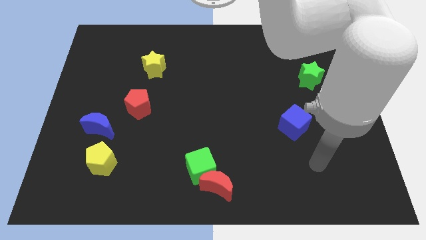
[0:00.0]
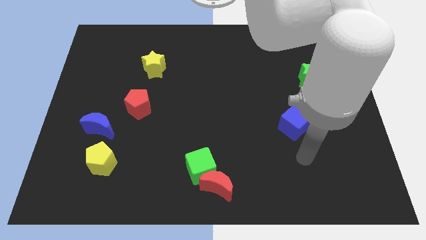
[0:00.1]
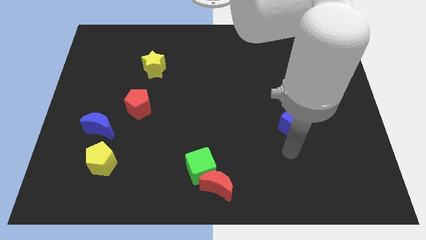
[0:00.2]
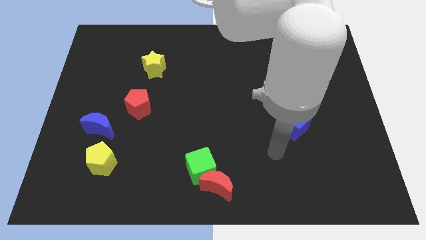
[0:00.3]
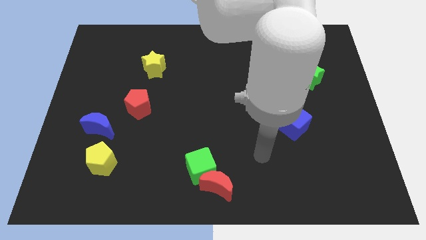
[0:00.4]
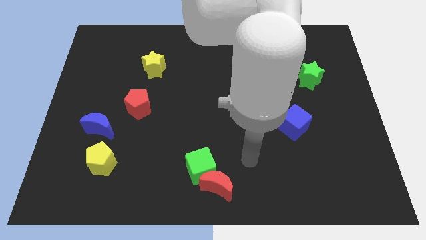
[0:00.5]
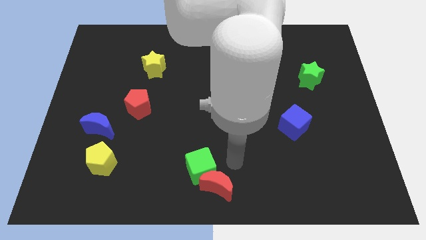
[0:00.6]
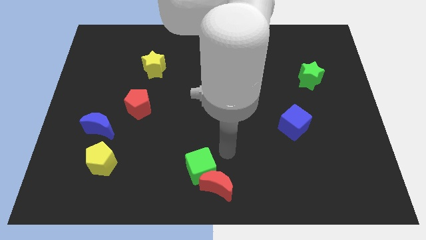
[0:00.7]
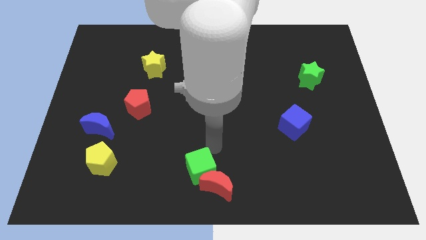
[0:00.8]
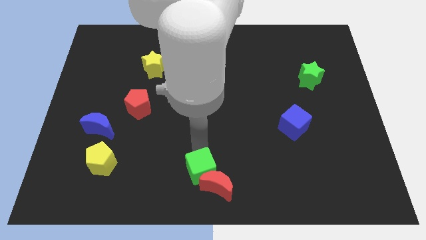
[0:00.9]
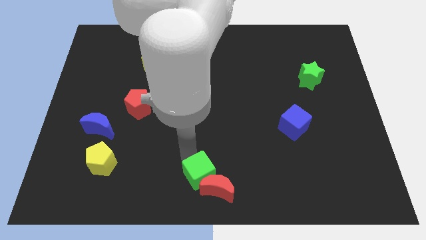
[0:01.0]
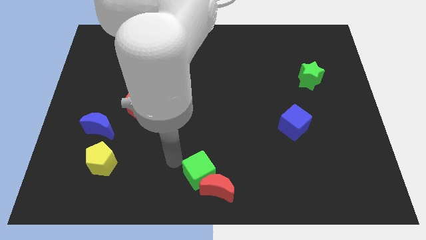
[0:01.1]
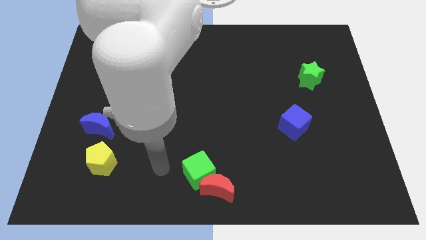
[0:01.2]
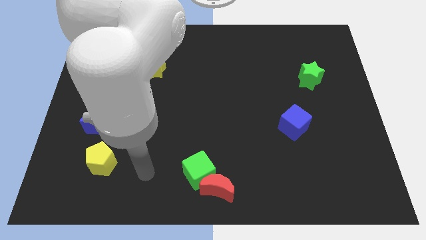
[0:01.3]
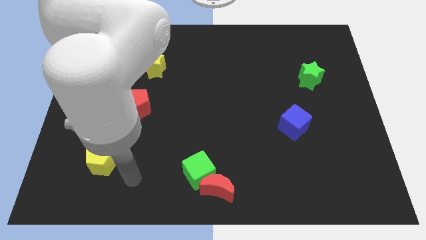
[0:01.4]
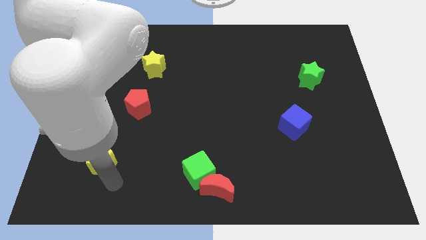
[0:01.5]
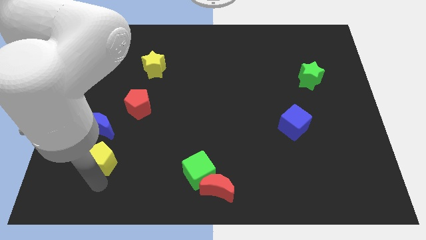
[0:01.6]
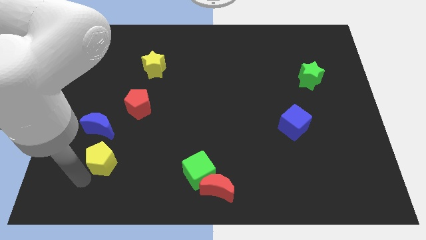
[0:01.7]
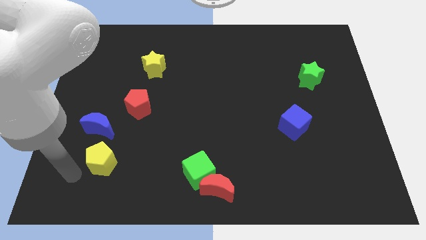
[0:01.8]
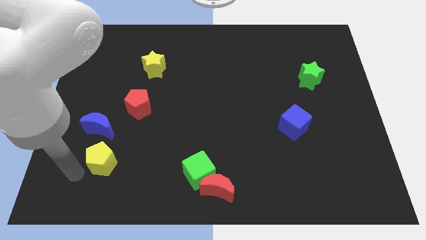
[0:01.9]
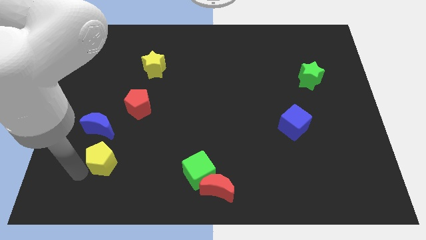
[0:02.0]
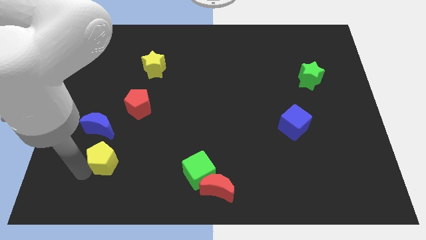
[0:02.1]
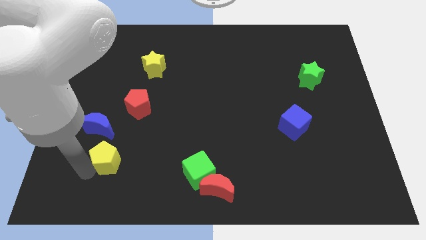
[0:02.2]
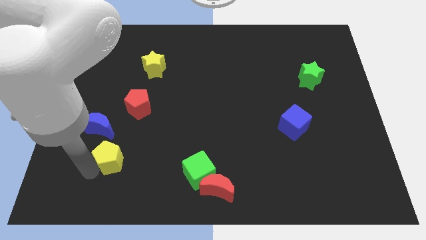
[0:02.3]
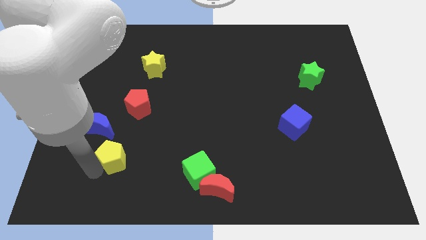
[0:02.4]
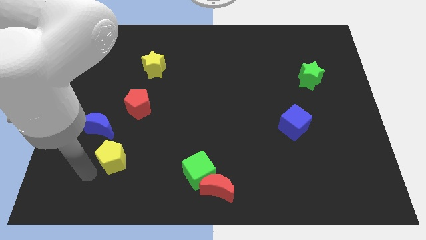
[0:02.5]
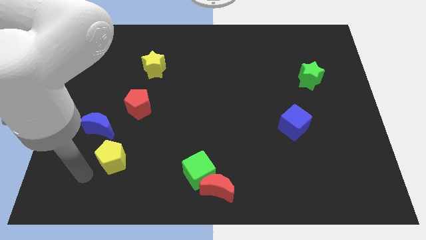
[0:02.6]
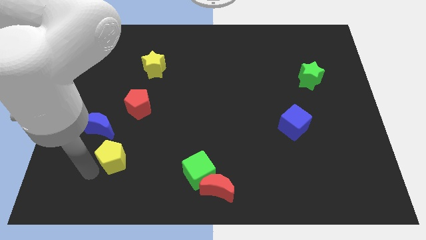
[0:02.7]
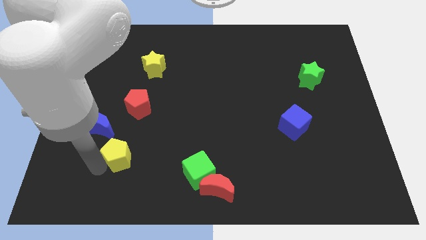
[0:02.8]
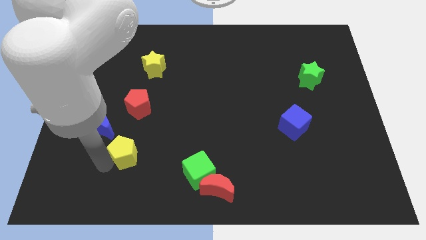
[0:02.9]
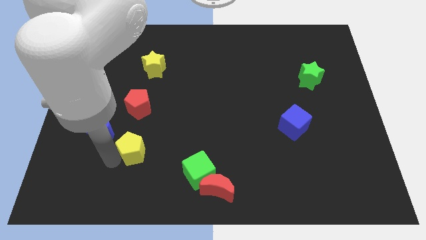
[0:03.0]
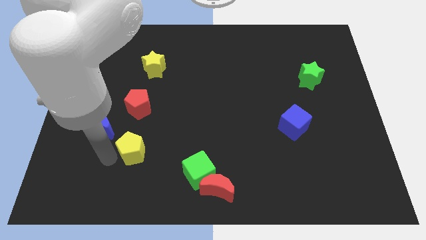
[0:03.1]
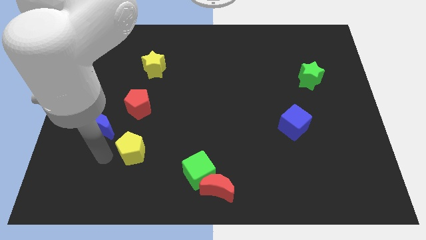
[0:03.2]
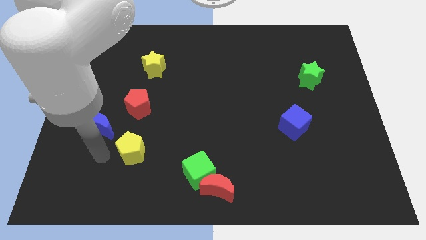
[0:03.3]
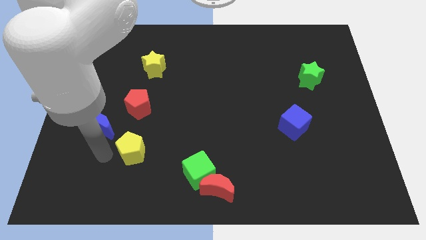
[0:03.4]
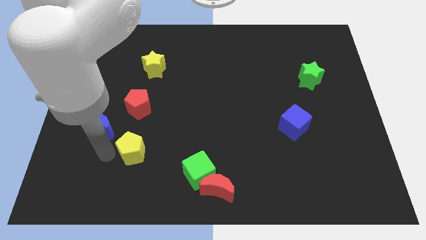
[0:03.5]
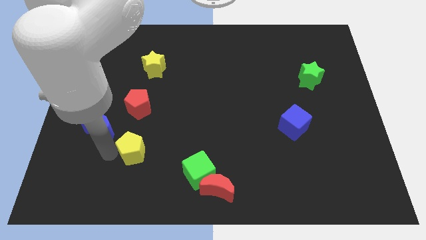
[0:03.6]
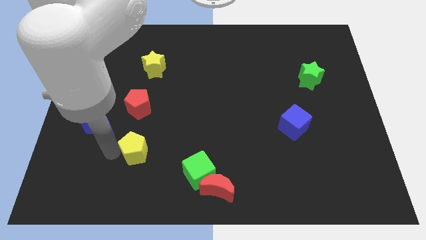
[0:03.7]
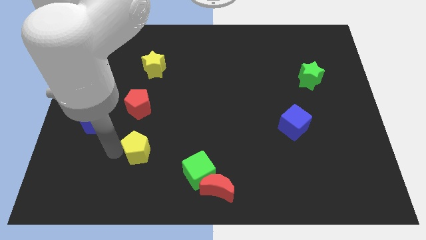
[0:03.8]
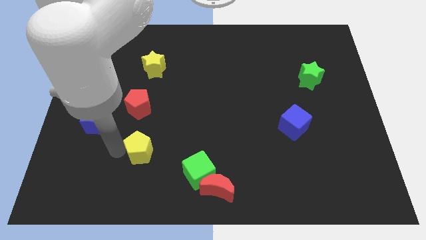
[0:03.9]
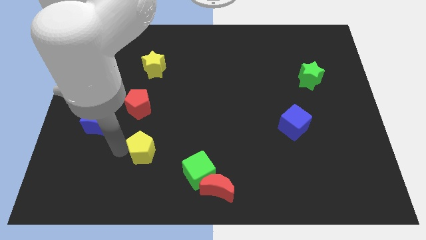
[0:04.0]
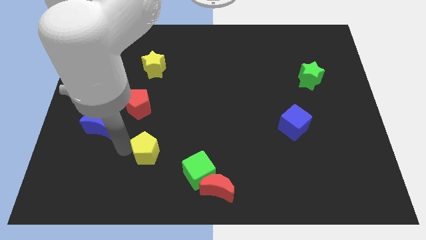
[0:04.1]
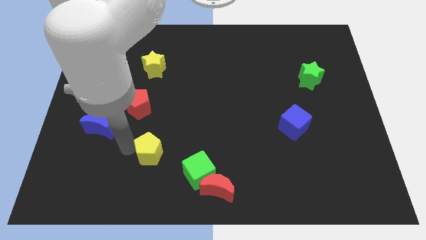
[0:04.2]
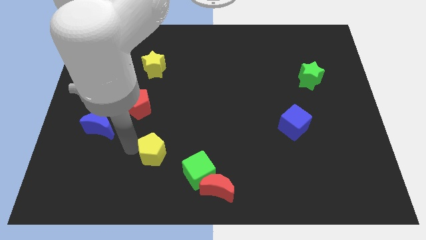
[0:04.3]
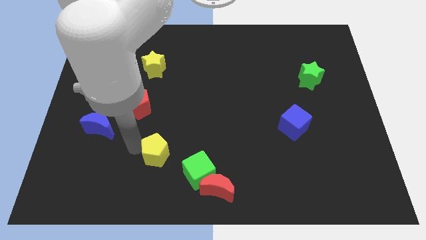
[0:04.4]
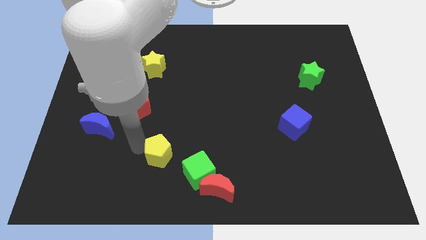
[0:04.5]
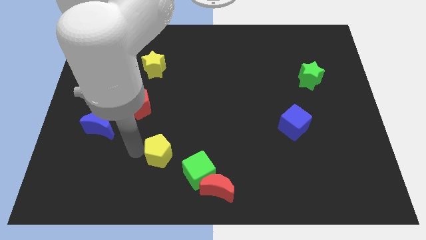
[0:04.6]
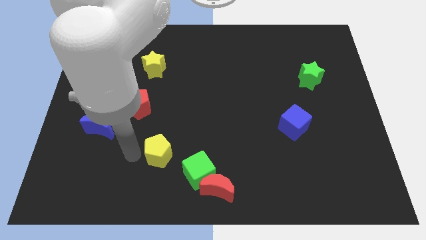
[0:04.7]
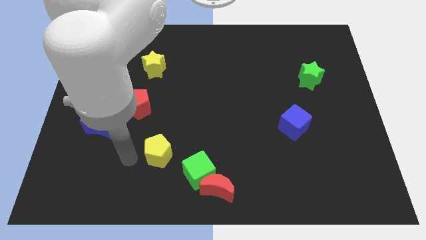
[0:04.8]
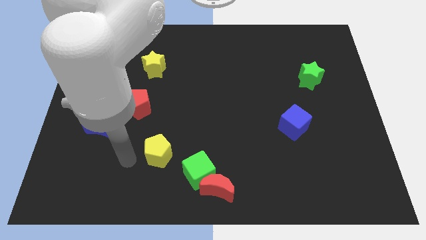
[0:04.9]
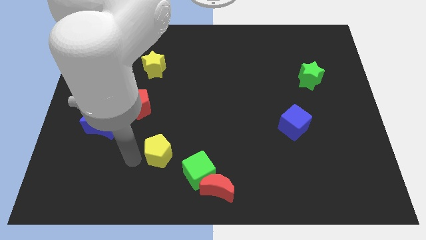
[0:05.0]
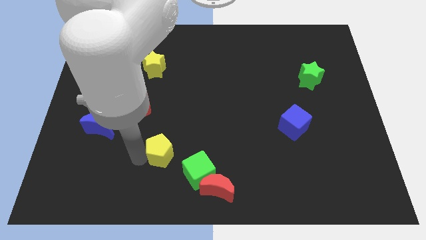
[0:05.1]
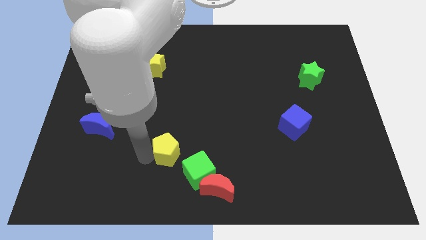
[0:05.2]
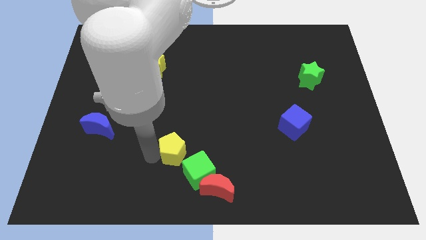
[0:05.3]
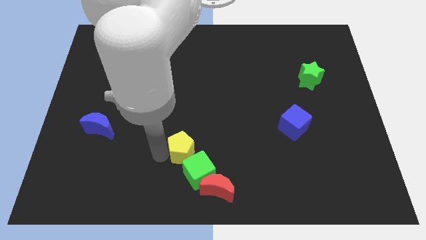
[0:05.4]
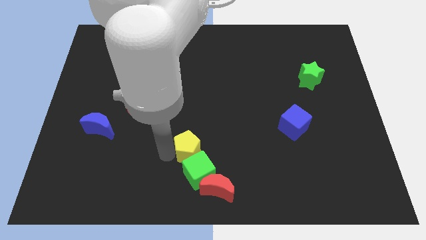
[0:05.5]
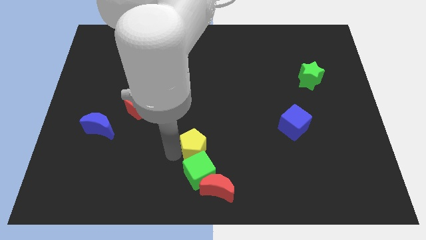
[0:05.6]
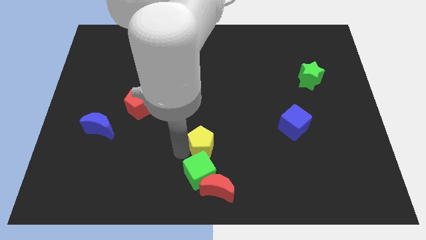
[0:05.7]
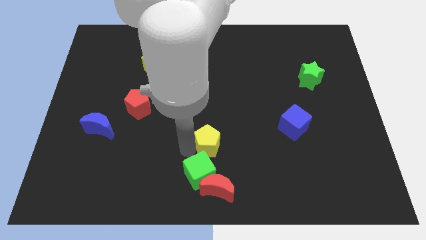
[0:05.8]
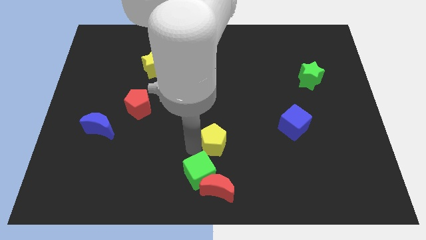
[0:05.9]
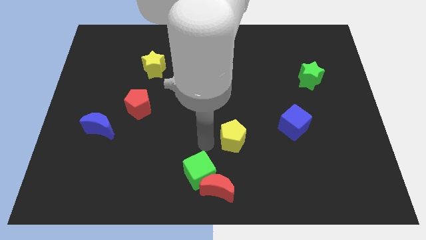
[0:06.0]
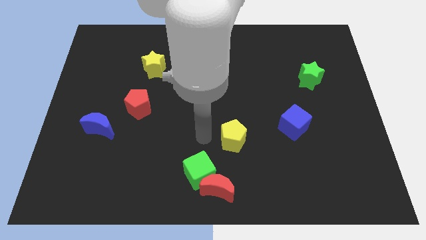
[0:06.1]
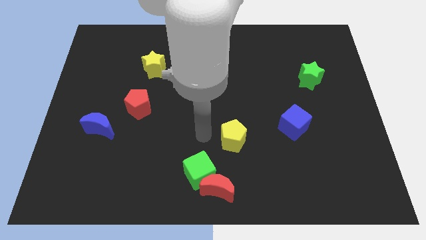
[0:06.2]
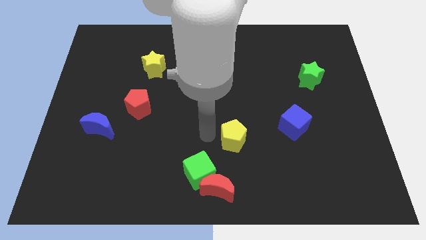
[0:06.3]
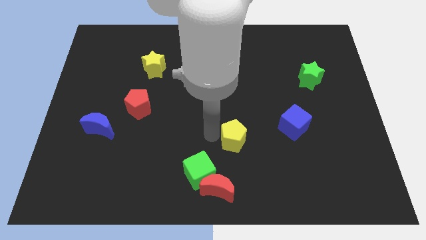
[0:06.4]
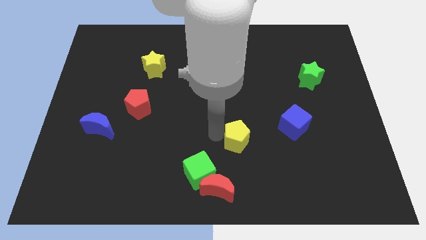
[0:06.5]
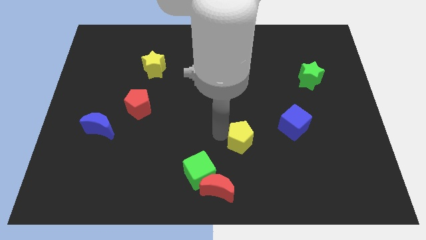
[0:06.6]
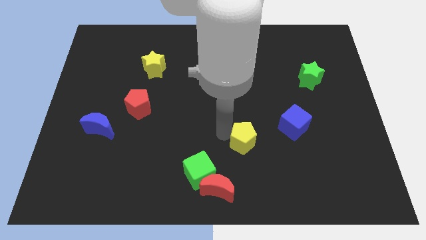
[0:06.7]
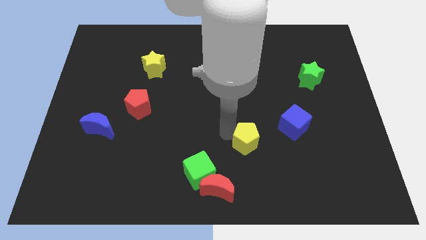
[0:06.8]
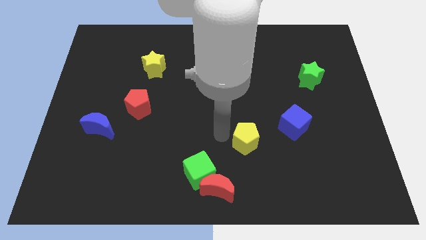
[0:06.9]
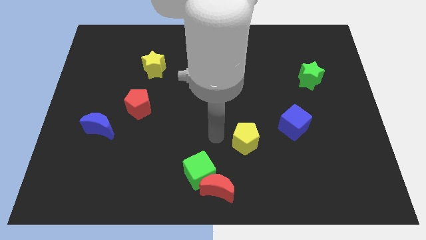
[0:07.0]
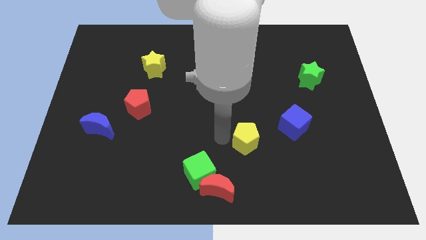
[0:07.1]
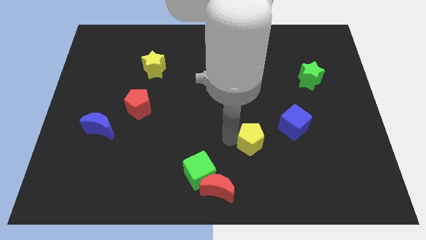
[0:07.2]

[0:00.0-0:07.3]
push the yellow pentagon to the bottom left of the blue cube

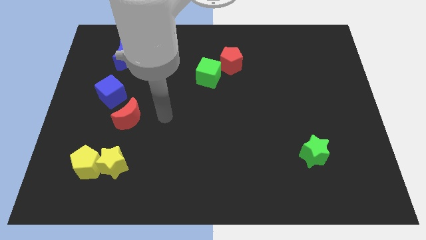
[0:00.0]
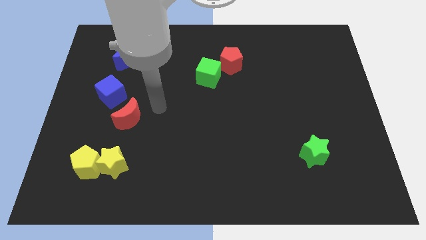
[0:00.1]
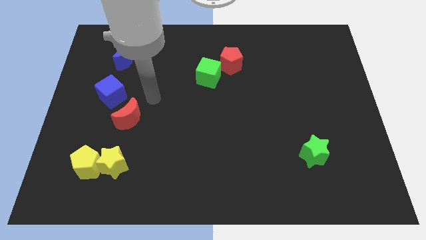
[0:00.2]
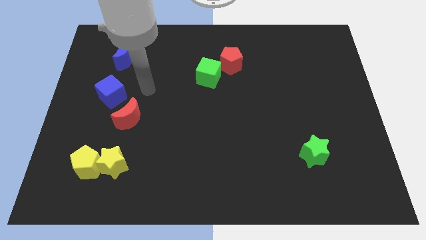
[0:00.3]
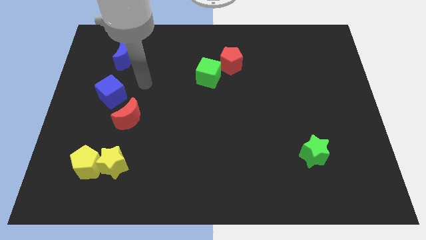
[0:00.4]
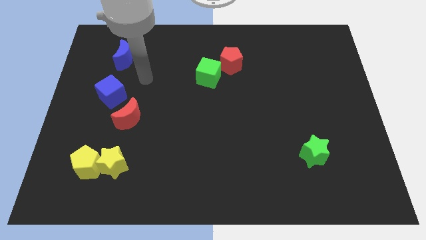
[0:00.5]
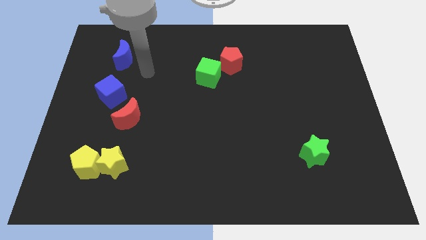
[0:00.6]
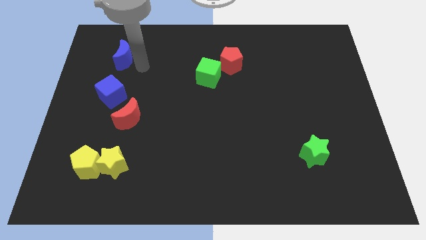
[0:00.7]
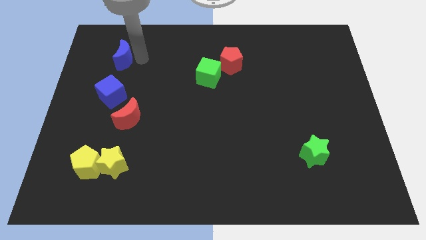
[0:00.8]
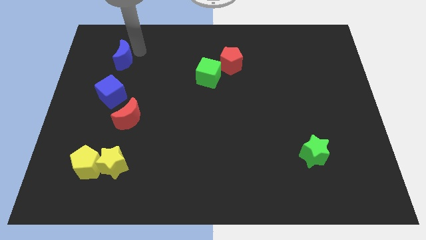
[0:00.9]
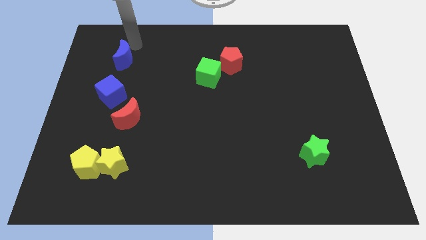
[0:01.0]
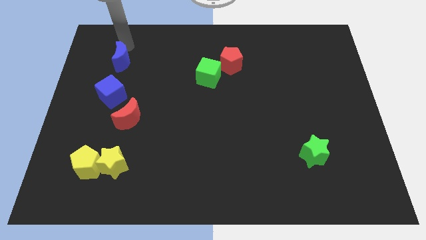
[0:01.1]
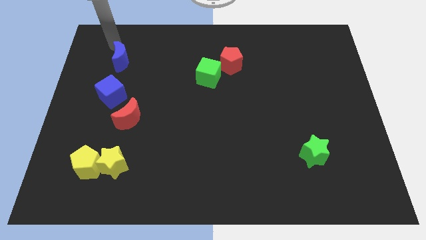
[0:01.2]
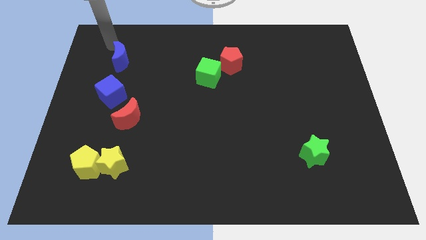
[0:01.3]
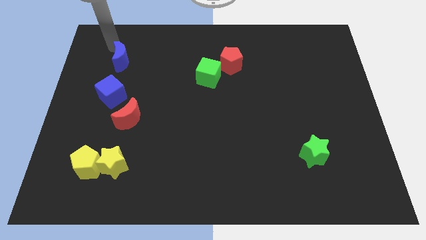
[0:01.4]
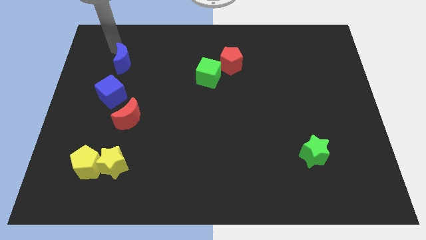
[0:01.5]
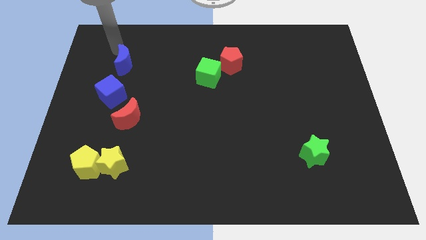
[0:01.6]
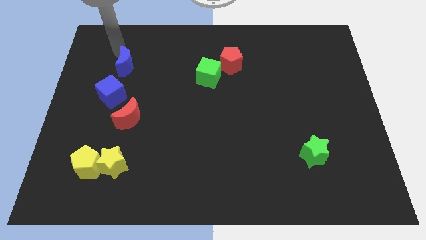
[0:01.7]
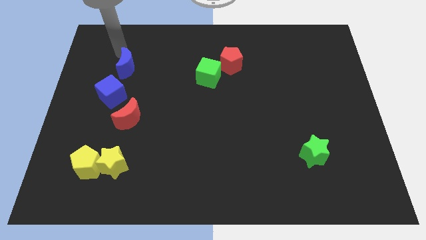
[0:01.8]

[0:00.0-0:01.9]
slide the blue moon to the top right of the blue cube
